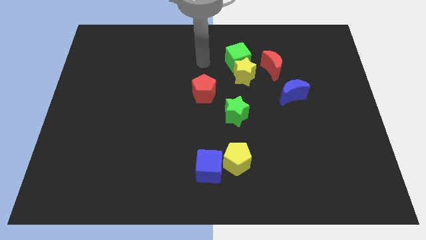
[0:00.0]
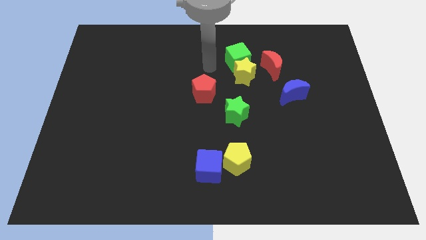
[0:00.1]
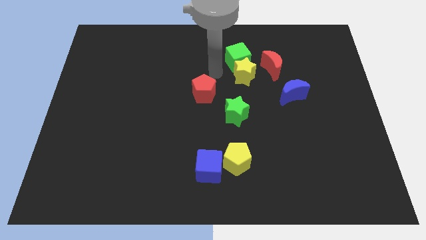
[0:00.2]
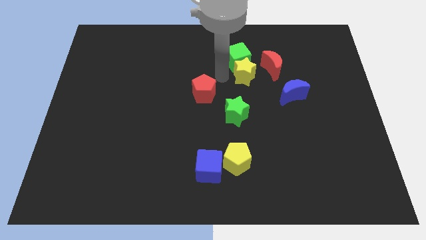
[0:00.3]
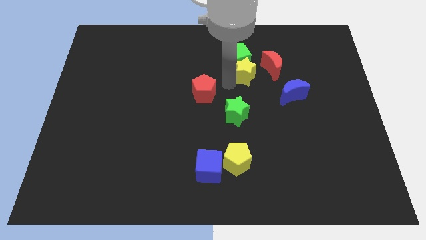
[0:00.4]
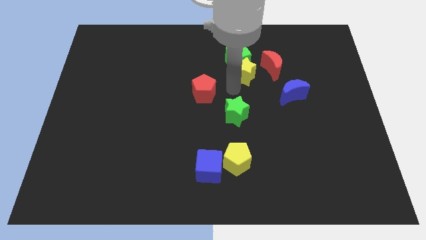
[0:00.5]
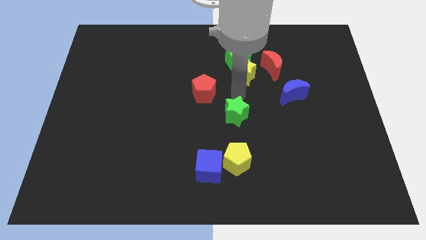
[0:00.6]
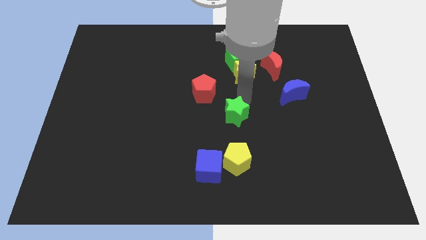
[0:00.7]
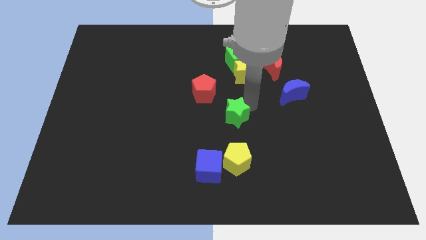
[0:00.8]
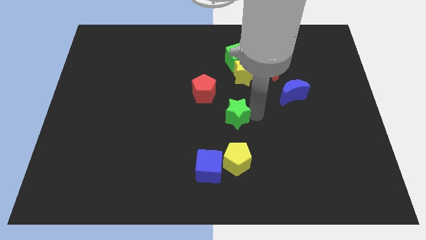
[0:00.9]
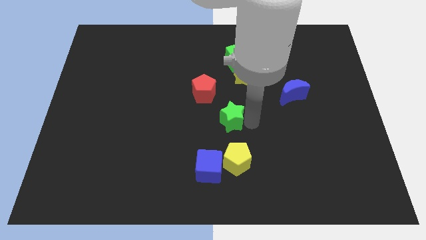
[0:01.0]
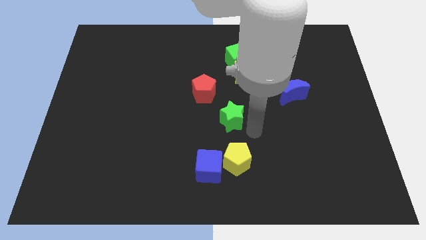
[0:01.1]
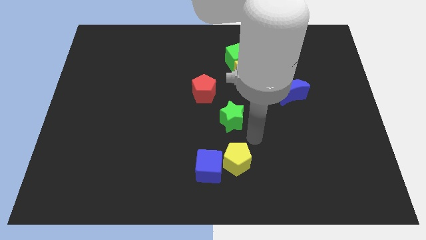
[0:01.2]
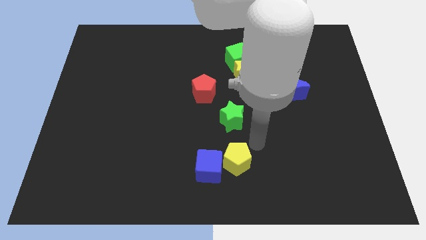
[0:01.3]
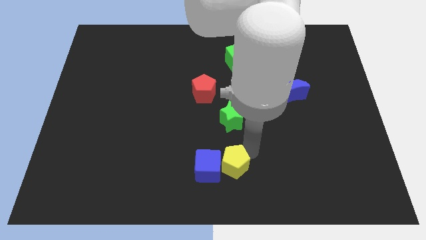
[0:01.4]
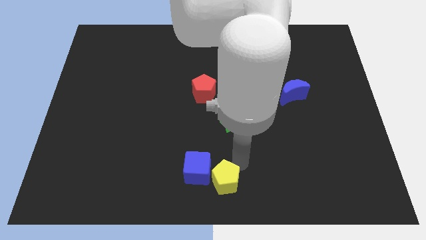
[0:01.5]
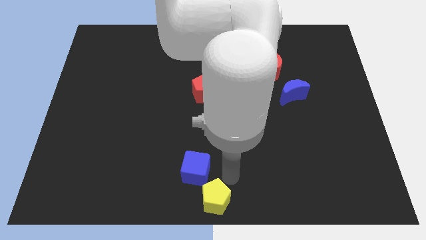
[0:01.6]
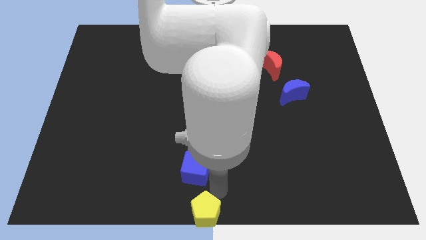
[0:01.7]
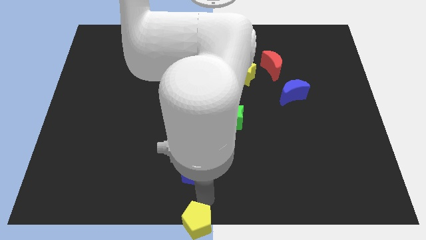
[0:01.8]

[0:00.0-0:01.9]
pull the blue cube apart from the yellow pentagon

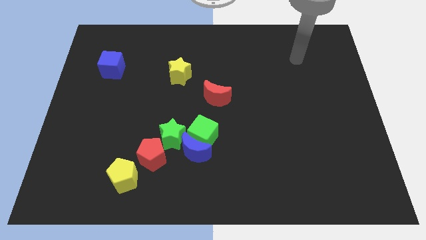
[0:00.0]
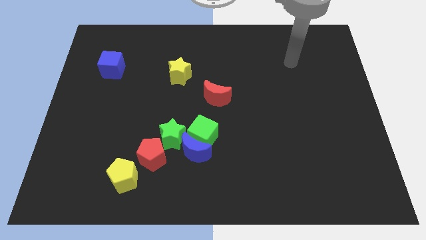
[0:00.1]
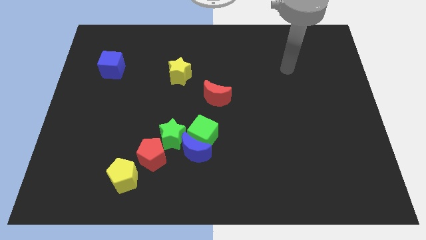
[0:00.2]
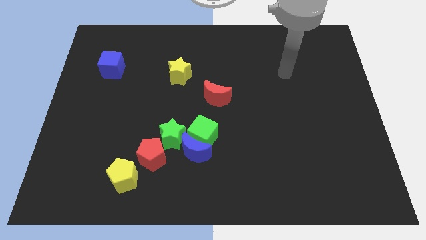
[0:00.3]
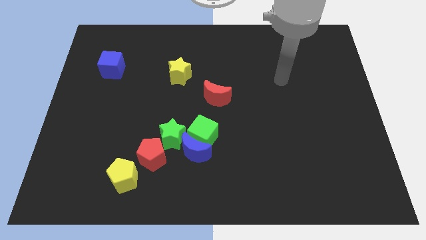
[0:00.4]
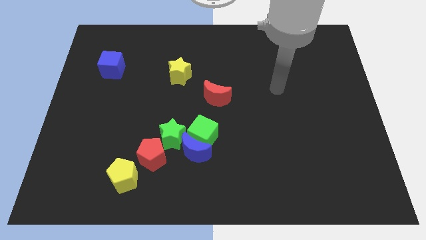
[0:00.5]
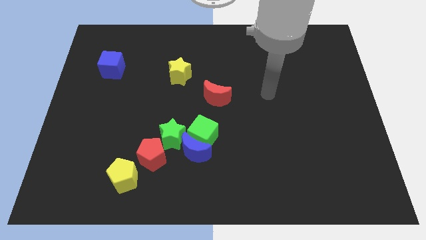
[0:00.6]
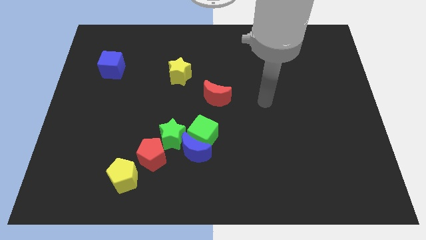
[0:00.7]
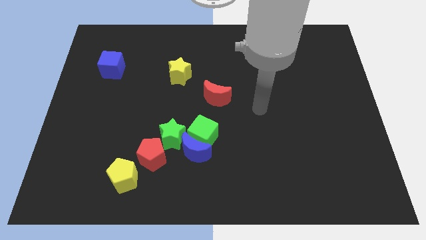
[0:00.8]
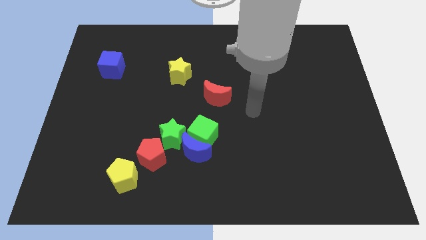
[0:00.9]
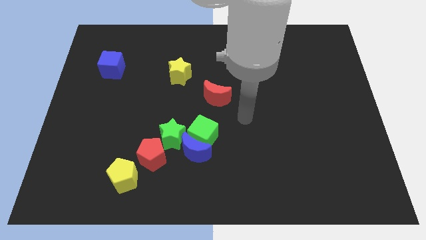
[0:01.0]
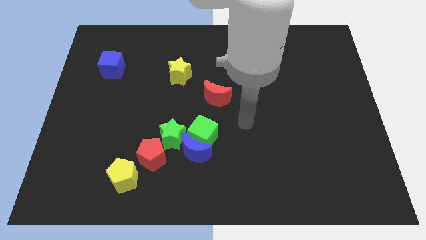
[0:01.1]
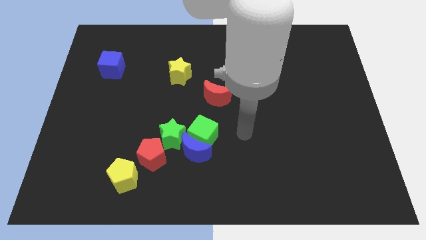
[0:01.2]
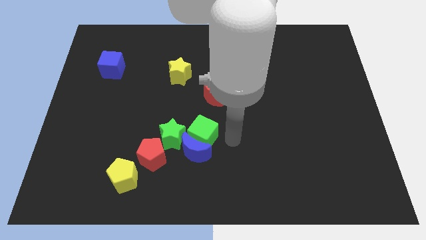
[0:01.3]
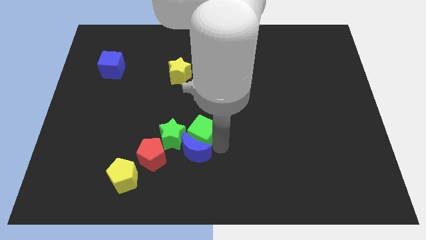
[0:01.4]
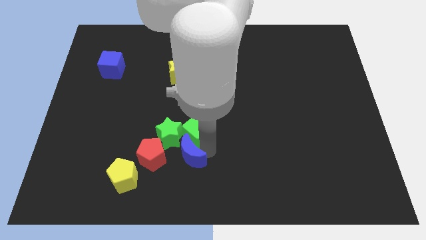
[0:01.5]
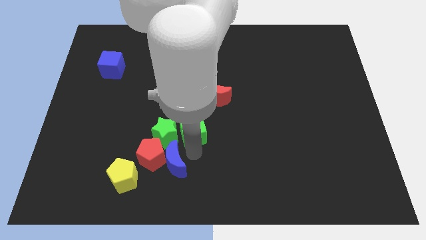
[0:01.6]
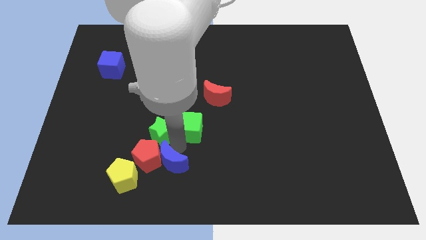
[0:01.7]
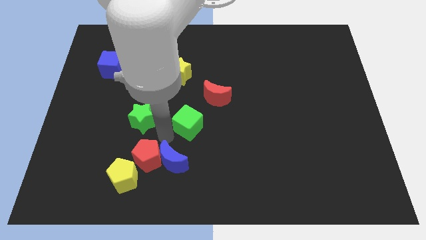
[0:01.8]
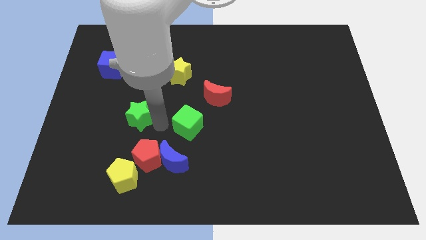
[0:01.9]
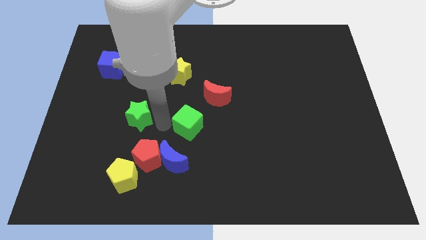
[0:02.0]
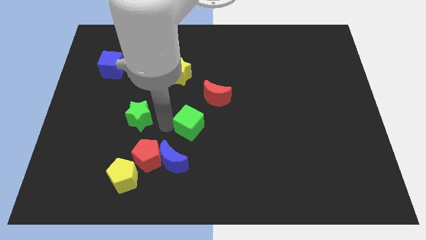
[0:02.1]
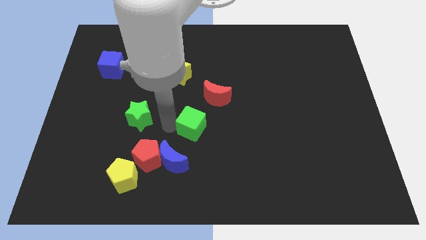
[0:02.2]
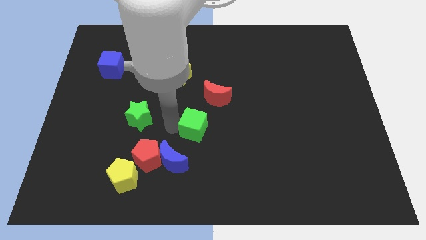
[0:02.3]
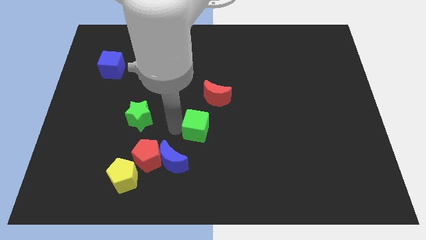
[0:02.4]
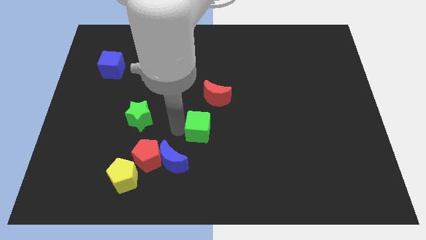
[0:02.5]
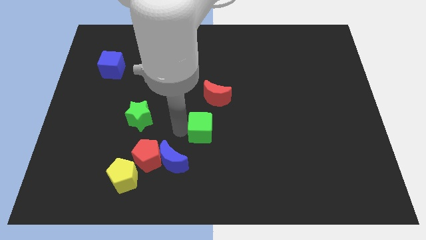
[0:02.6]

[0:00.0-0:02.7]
pull the green cube apart from the blue moon and green star

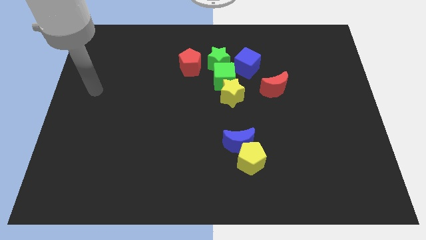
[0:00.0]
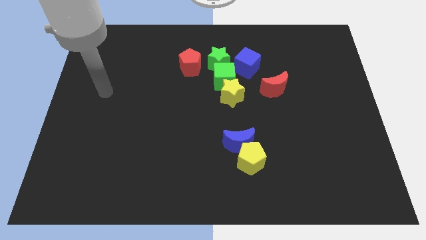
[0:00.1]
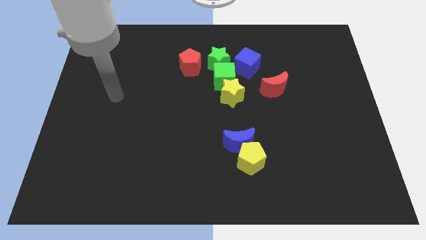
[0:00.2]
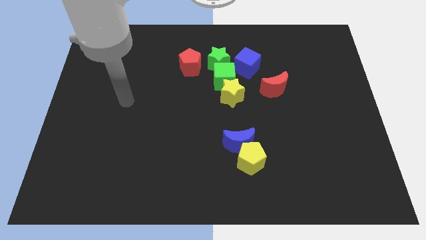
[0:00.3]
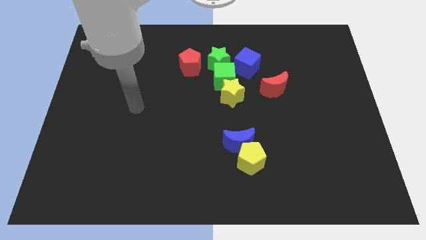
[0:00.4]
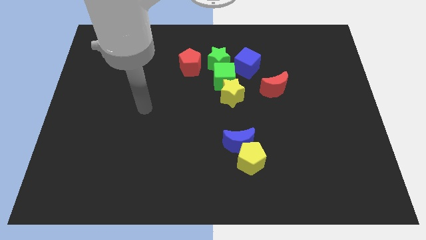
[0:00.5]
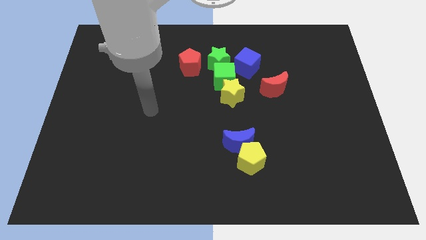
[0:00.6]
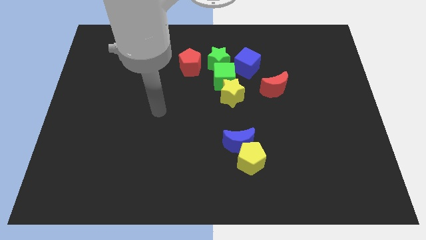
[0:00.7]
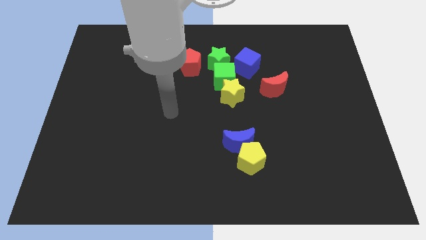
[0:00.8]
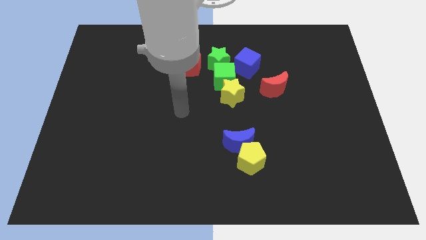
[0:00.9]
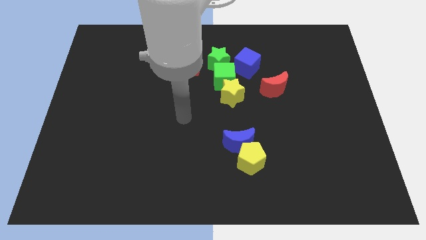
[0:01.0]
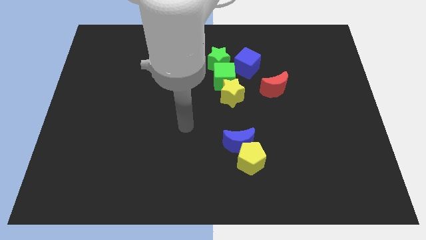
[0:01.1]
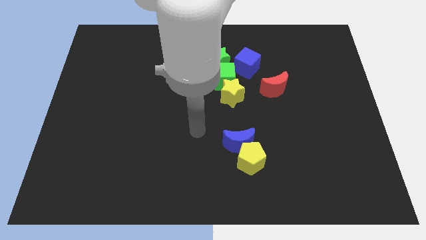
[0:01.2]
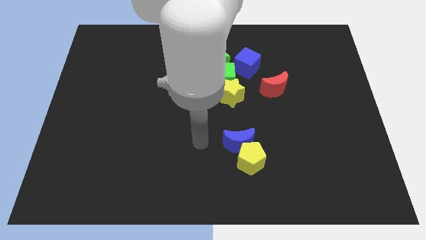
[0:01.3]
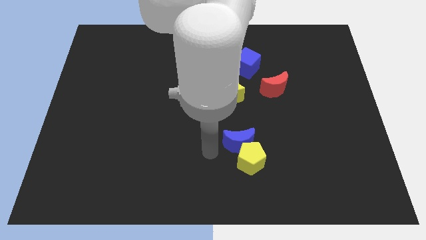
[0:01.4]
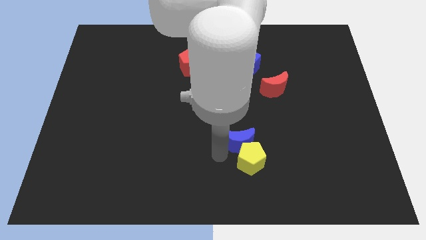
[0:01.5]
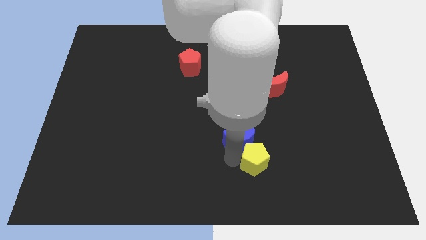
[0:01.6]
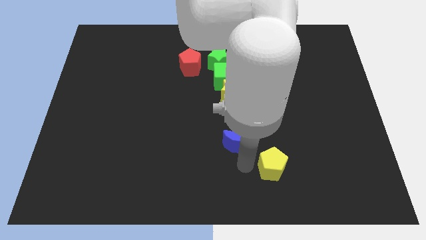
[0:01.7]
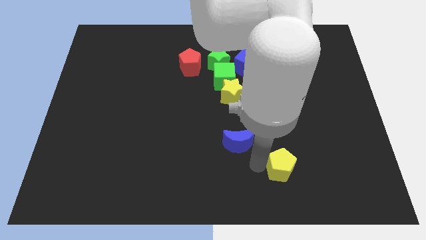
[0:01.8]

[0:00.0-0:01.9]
pull the blue moon apart from the yellow pentagon

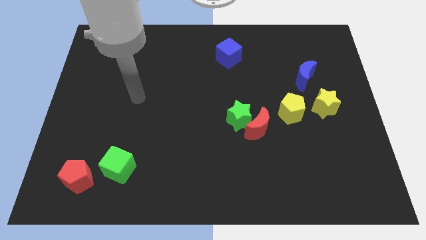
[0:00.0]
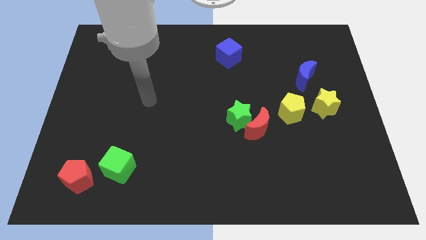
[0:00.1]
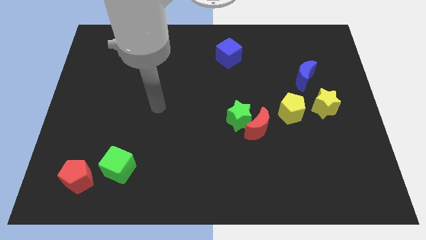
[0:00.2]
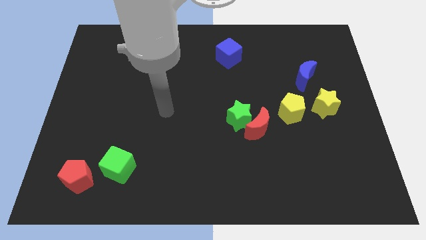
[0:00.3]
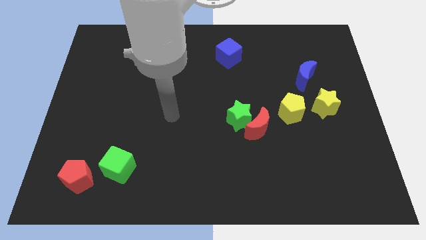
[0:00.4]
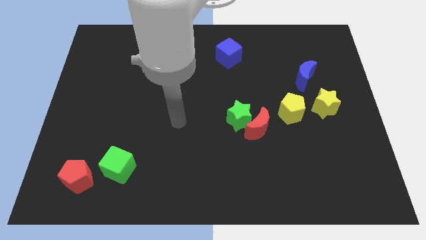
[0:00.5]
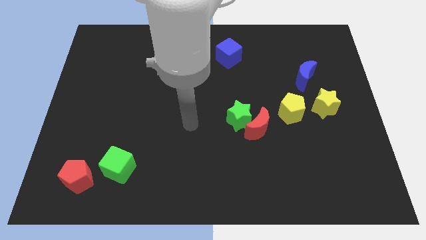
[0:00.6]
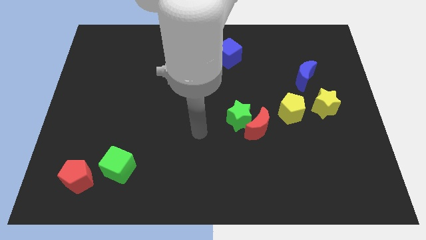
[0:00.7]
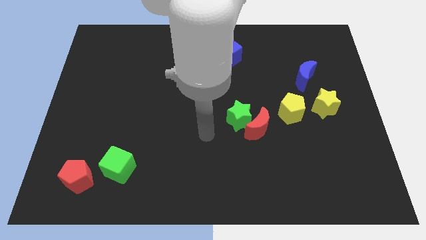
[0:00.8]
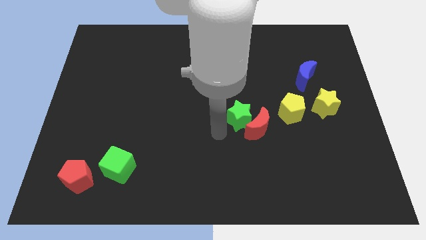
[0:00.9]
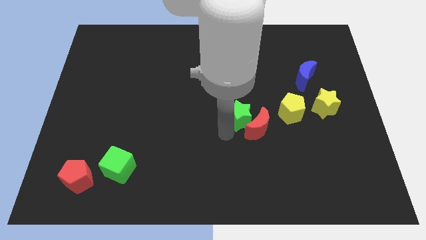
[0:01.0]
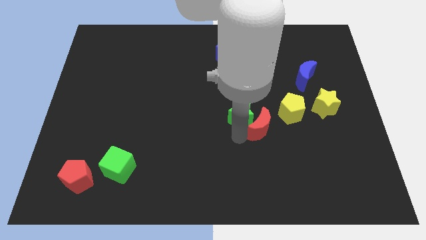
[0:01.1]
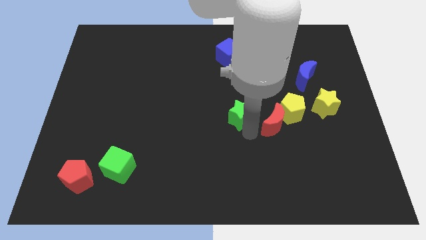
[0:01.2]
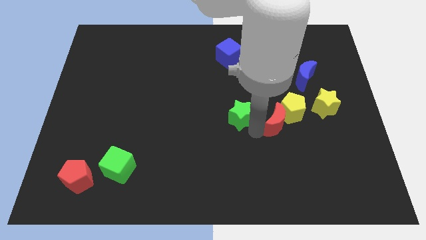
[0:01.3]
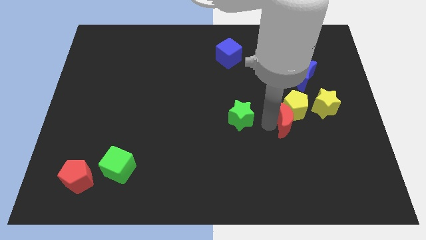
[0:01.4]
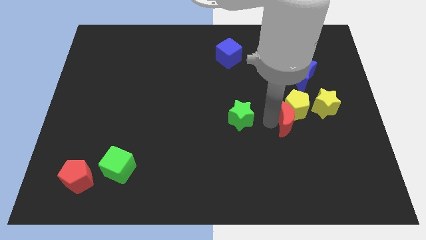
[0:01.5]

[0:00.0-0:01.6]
move the green star away from the red moon

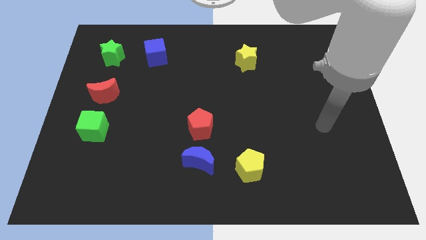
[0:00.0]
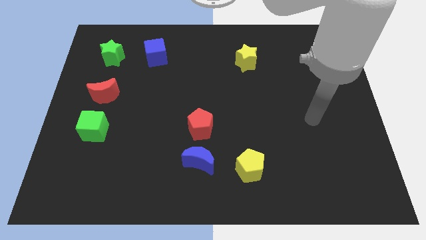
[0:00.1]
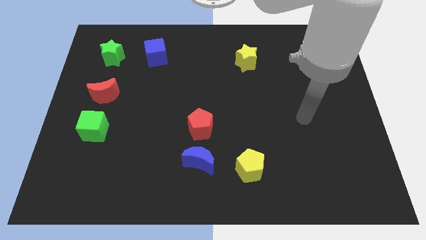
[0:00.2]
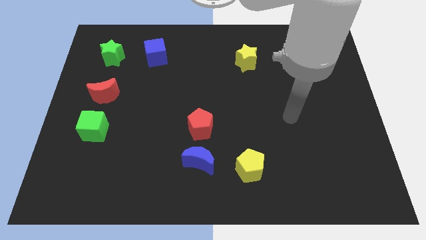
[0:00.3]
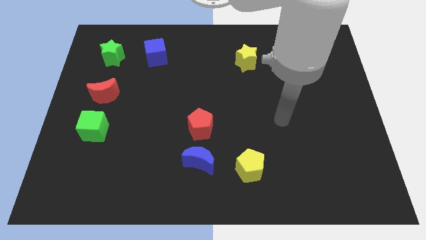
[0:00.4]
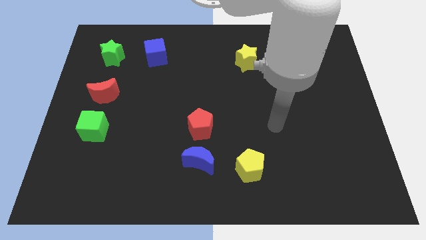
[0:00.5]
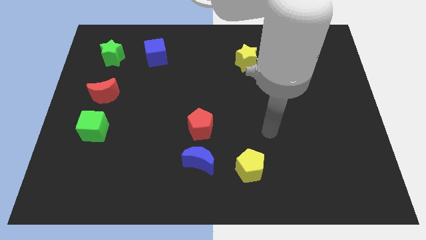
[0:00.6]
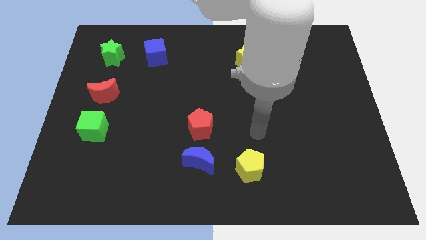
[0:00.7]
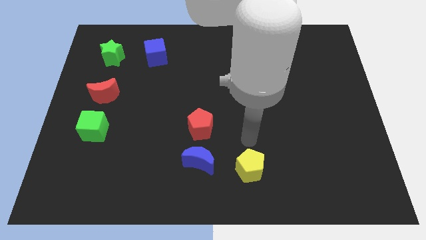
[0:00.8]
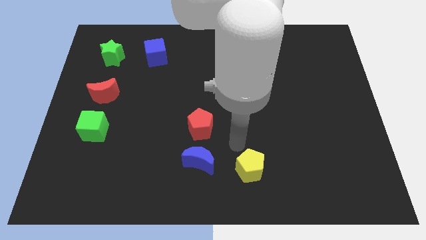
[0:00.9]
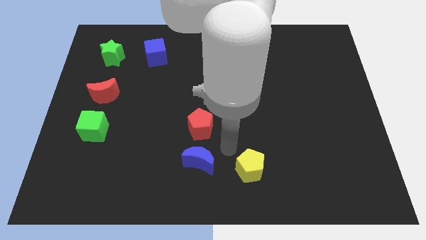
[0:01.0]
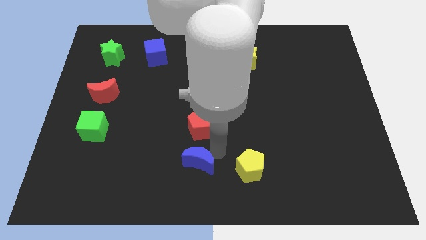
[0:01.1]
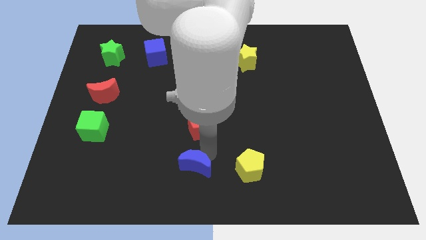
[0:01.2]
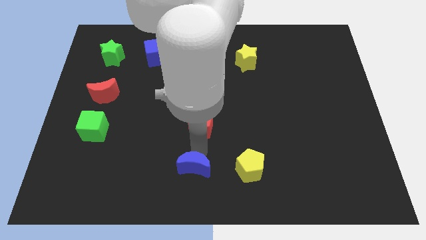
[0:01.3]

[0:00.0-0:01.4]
move the red pentagon away from the blue moon
